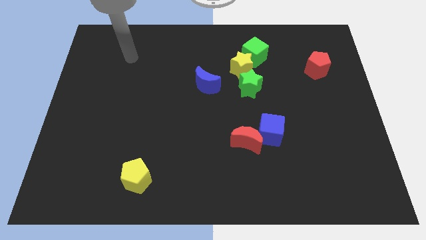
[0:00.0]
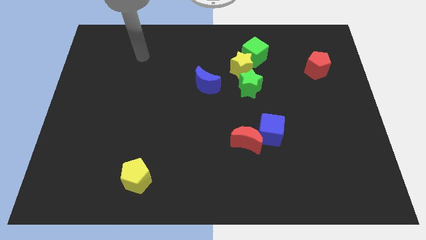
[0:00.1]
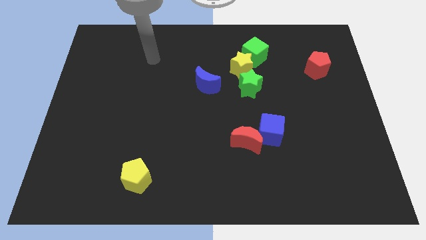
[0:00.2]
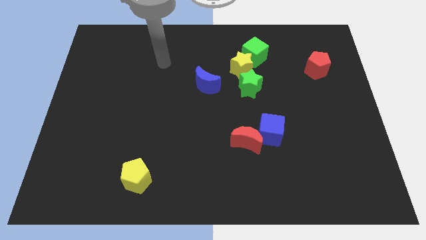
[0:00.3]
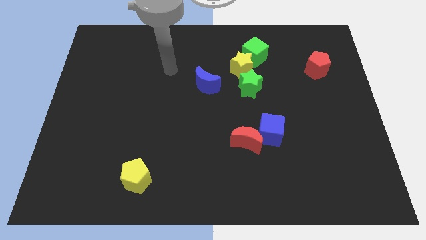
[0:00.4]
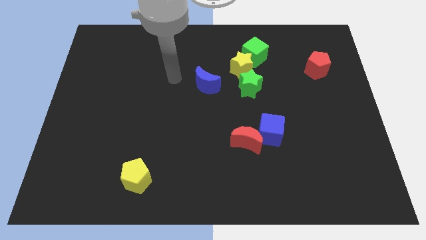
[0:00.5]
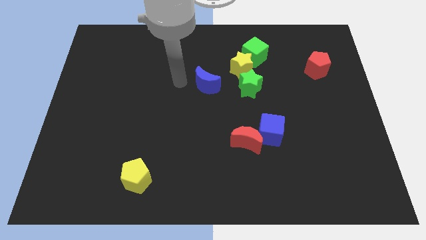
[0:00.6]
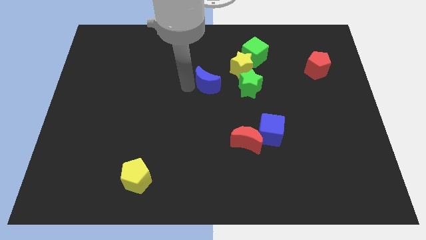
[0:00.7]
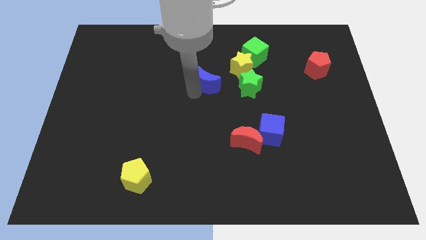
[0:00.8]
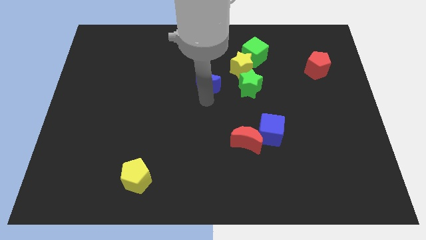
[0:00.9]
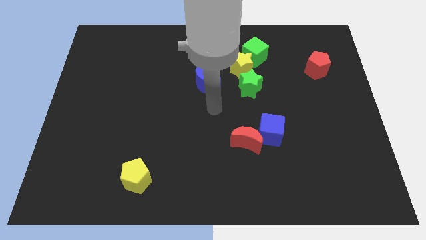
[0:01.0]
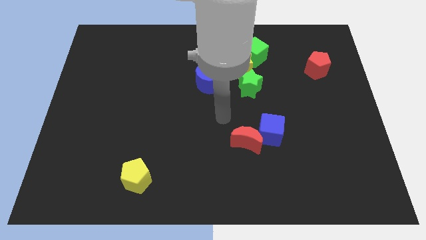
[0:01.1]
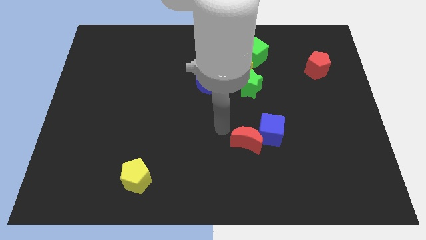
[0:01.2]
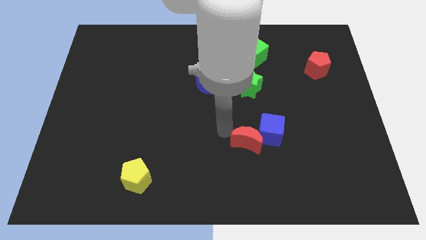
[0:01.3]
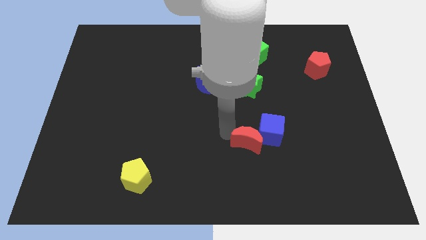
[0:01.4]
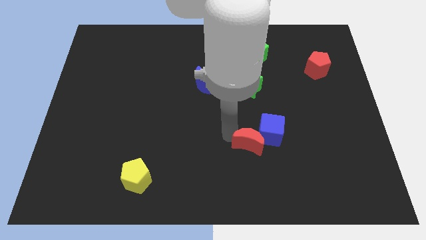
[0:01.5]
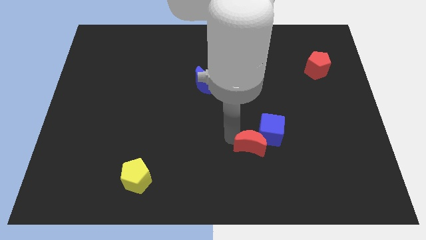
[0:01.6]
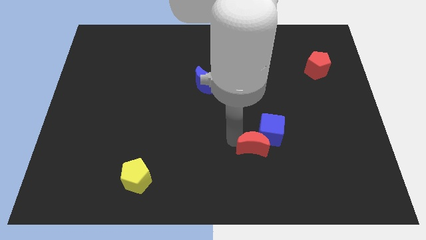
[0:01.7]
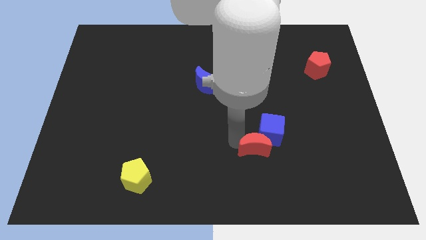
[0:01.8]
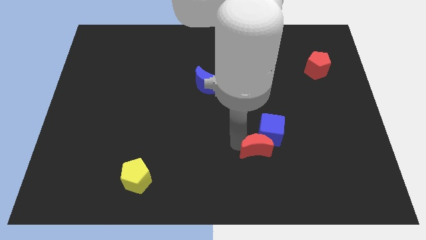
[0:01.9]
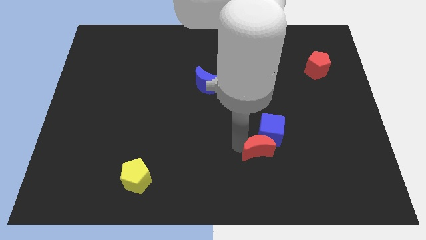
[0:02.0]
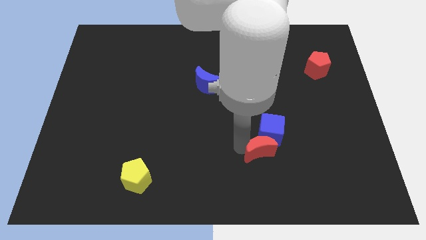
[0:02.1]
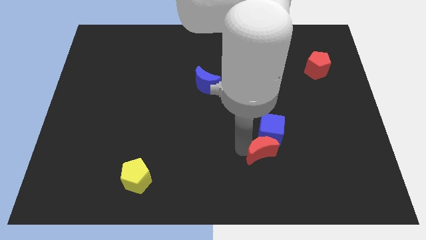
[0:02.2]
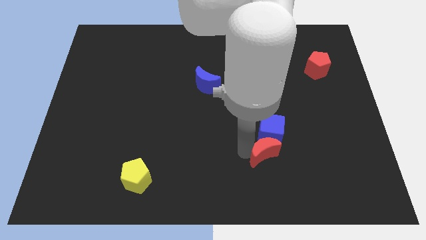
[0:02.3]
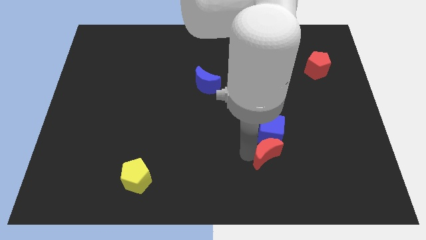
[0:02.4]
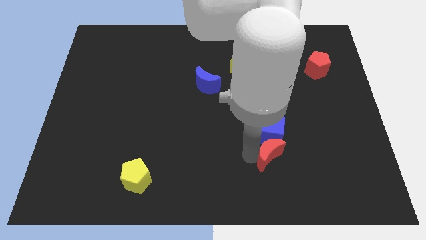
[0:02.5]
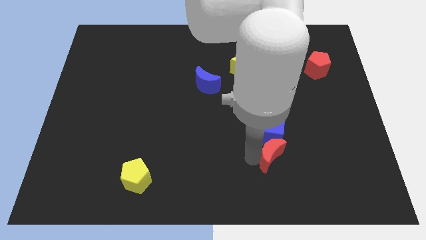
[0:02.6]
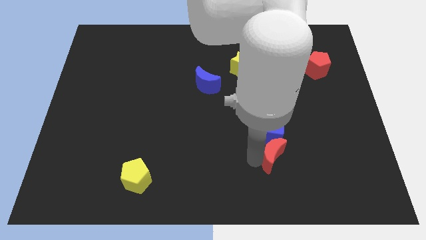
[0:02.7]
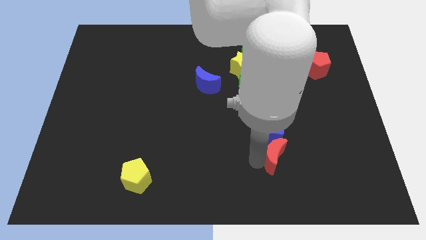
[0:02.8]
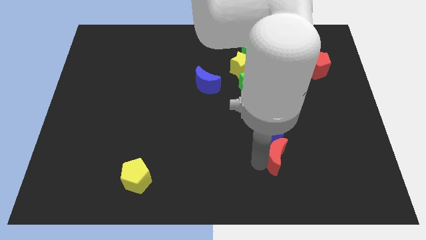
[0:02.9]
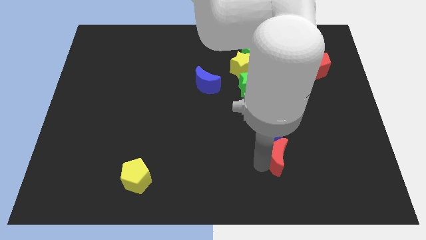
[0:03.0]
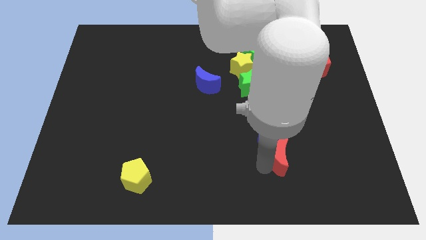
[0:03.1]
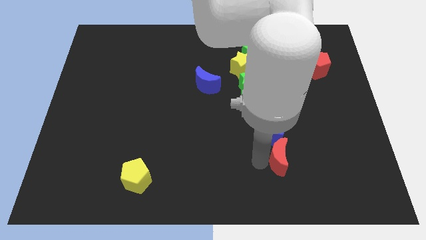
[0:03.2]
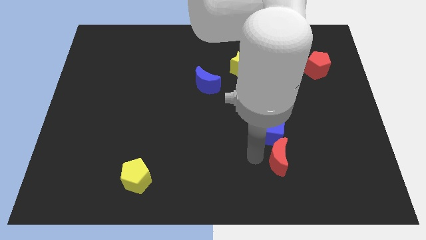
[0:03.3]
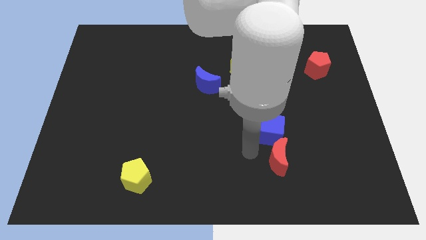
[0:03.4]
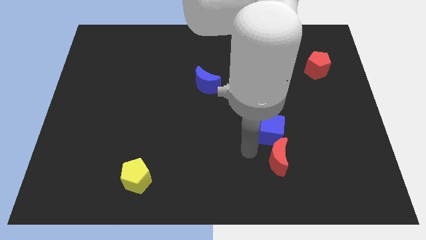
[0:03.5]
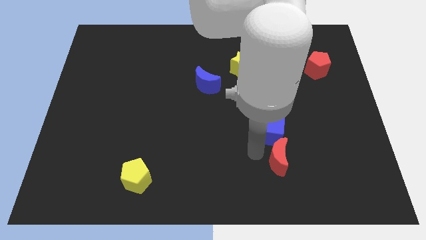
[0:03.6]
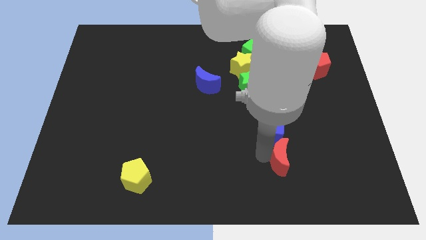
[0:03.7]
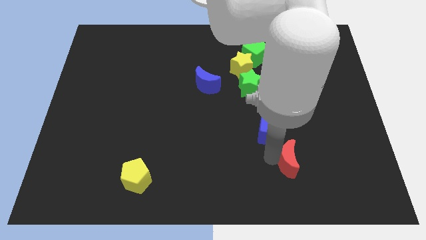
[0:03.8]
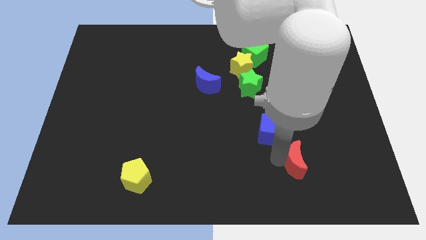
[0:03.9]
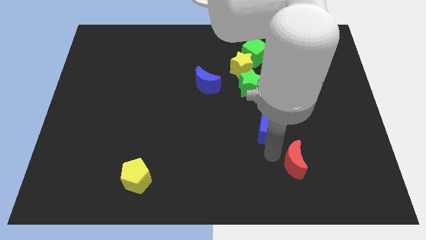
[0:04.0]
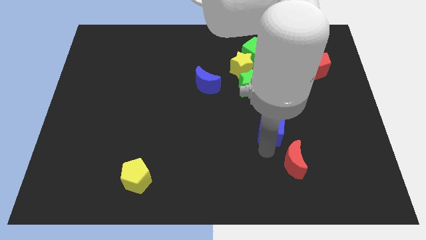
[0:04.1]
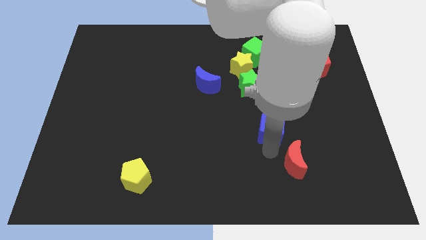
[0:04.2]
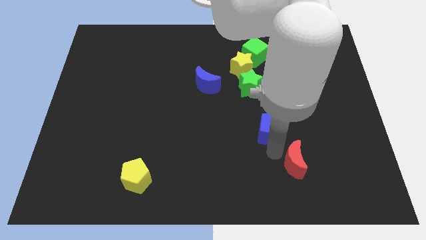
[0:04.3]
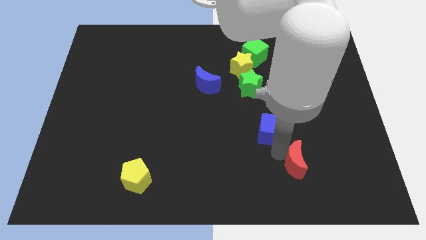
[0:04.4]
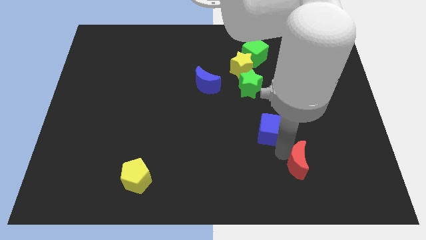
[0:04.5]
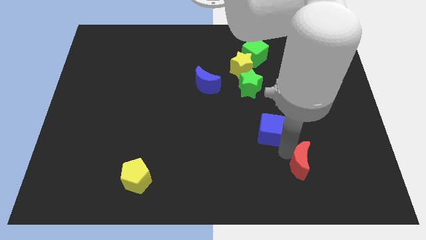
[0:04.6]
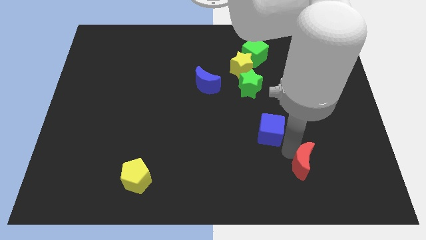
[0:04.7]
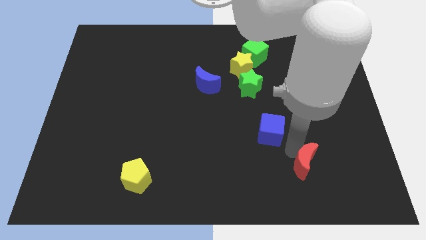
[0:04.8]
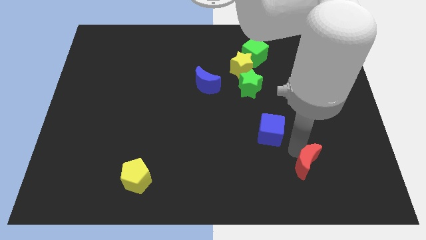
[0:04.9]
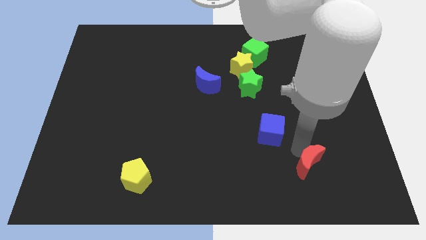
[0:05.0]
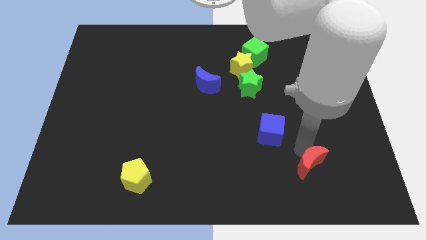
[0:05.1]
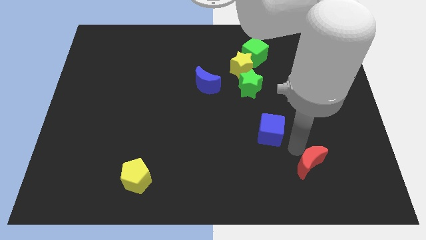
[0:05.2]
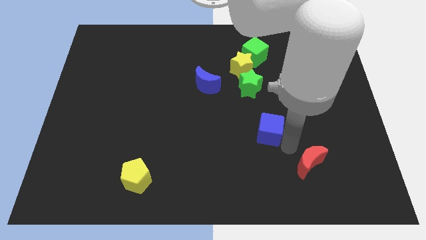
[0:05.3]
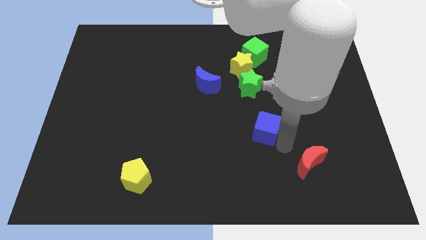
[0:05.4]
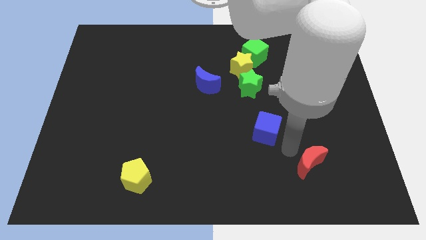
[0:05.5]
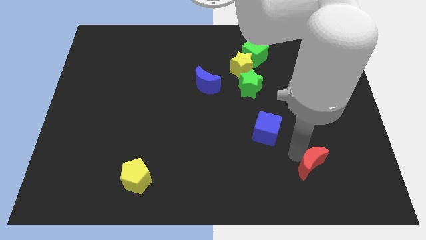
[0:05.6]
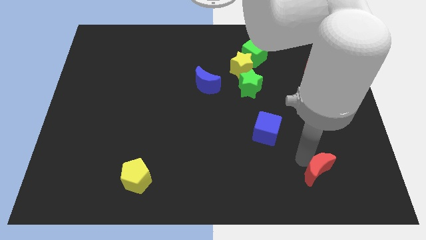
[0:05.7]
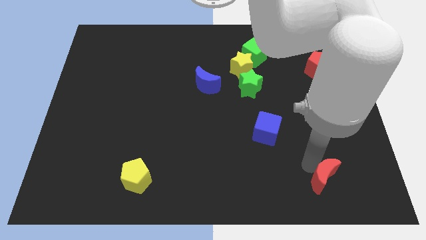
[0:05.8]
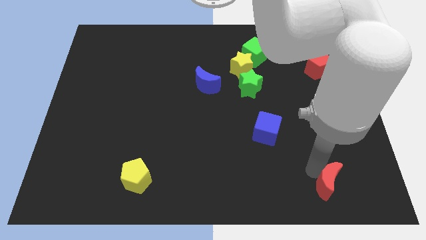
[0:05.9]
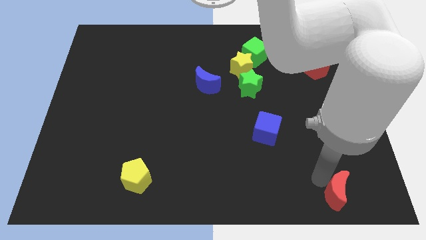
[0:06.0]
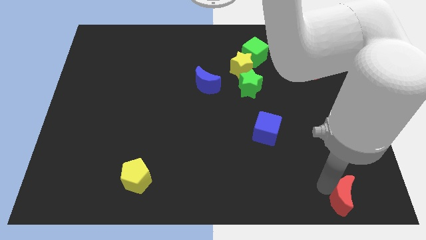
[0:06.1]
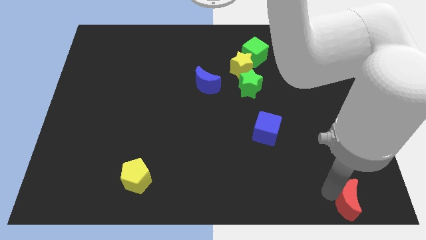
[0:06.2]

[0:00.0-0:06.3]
move the red moon to the bottom right
